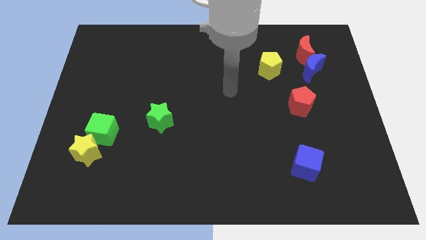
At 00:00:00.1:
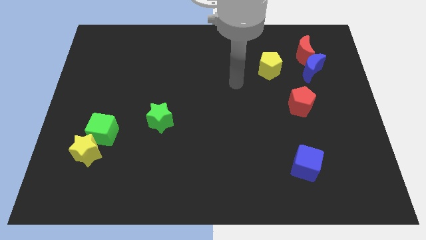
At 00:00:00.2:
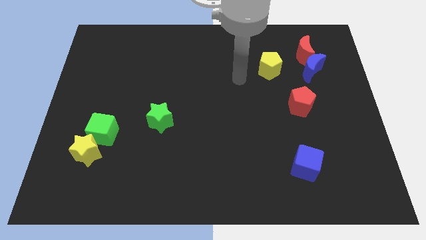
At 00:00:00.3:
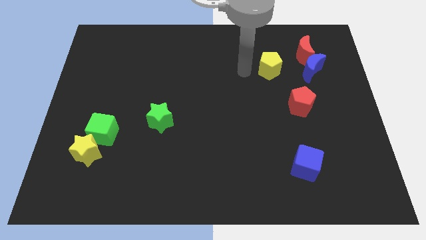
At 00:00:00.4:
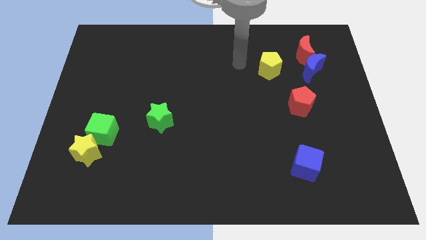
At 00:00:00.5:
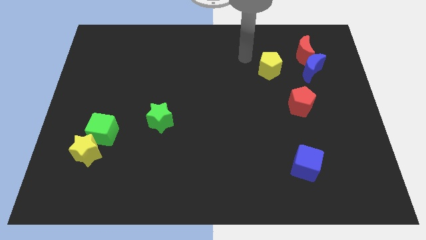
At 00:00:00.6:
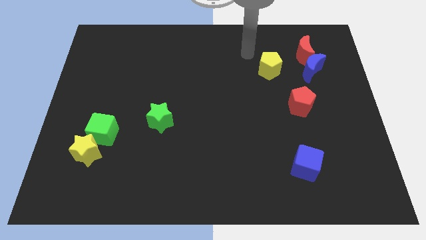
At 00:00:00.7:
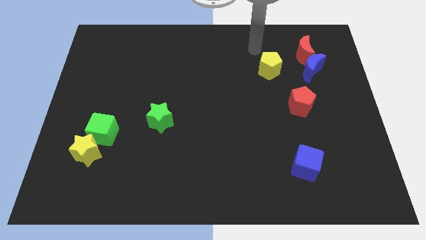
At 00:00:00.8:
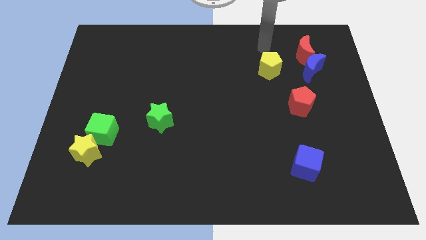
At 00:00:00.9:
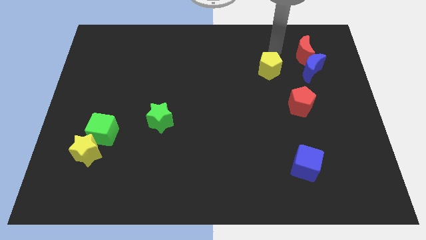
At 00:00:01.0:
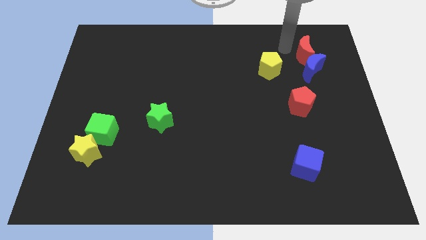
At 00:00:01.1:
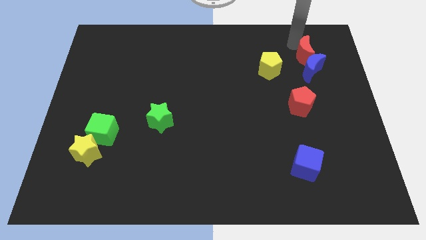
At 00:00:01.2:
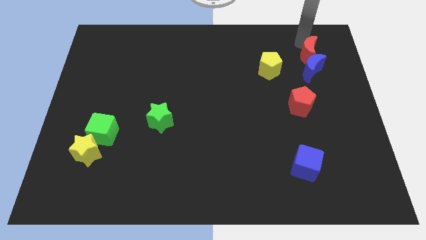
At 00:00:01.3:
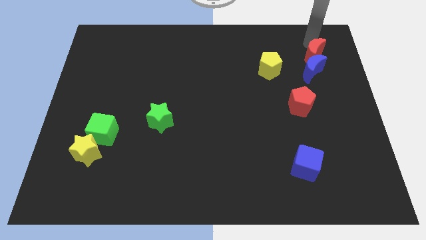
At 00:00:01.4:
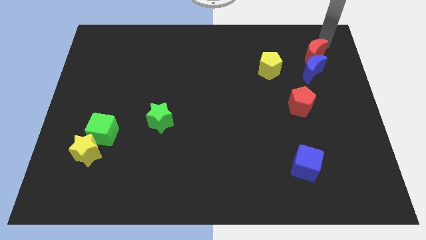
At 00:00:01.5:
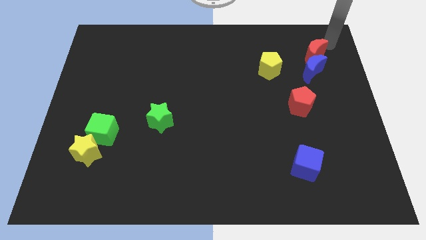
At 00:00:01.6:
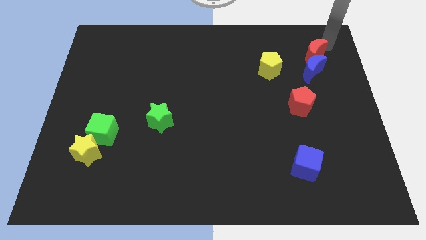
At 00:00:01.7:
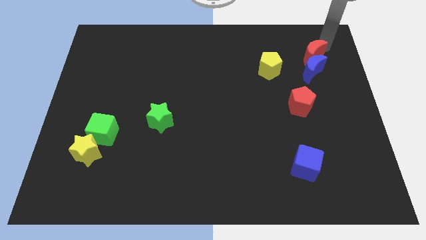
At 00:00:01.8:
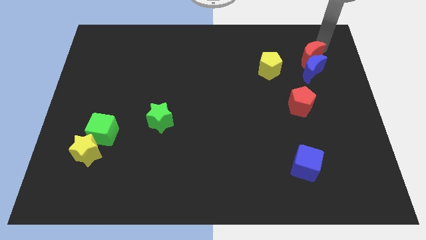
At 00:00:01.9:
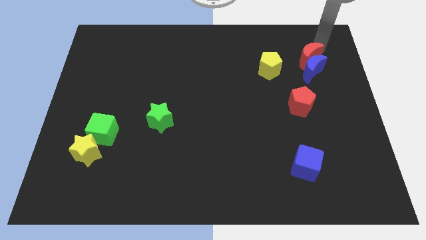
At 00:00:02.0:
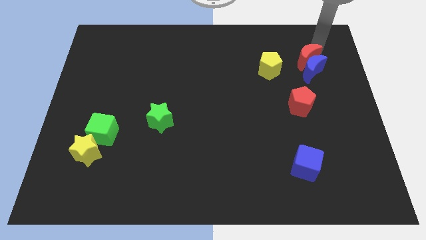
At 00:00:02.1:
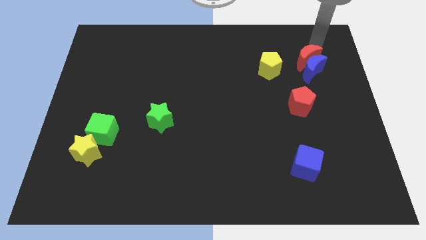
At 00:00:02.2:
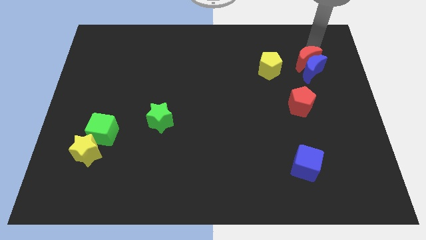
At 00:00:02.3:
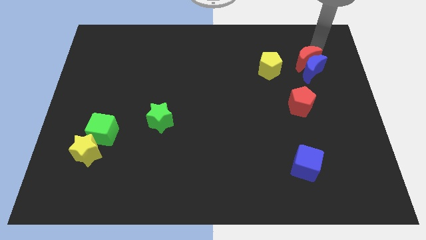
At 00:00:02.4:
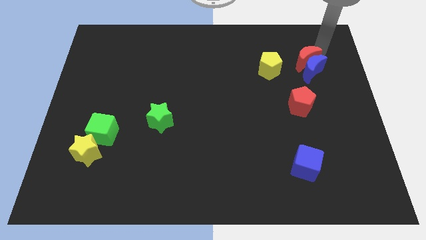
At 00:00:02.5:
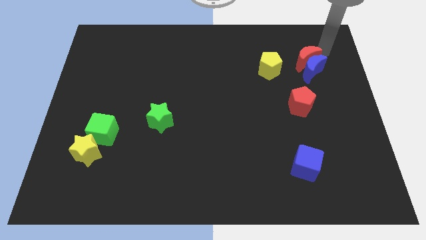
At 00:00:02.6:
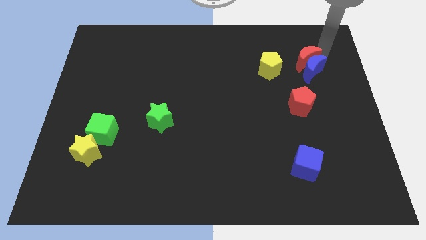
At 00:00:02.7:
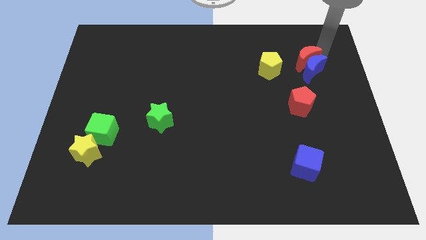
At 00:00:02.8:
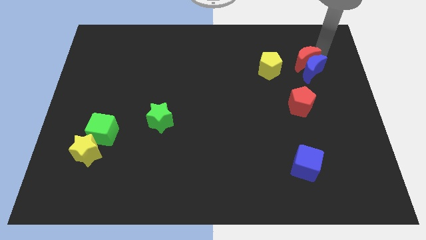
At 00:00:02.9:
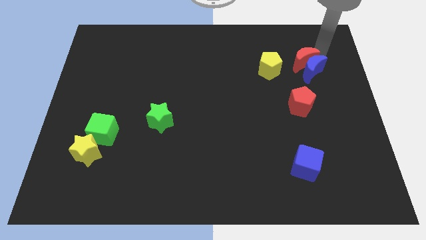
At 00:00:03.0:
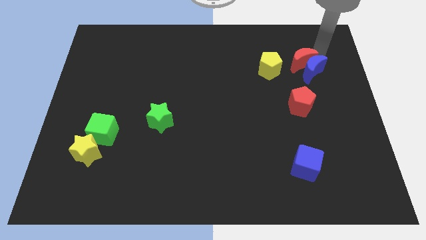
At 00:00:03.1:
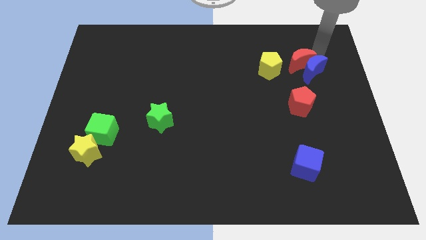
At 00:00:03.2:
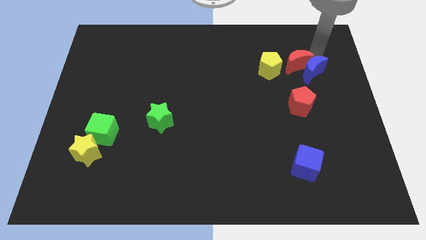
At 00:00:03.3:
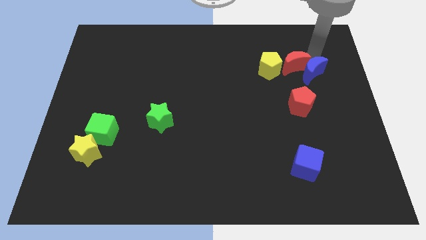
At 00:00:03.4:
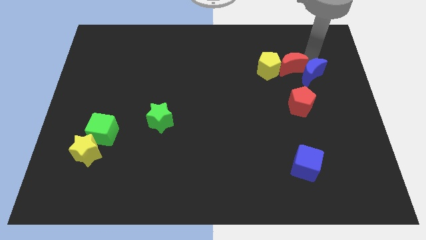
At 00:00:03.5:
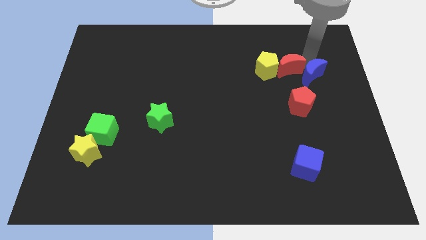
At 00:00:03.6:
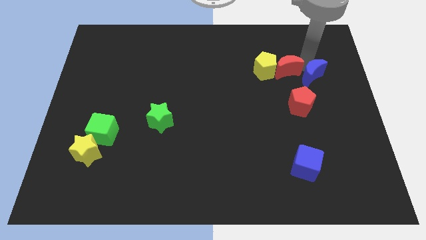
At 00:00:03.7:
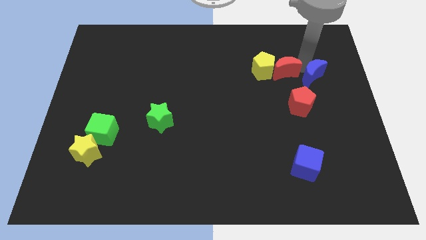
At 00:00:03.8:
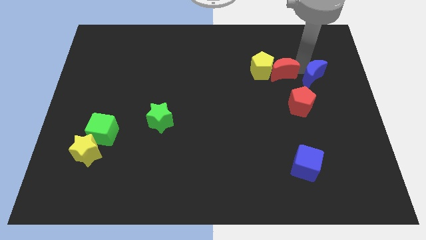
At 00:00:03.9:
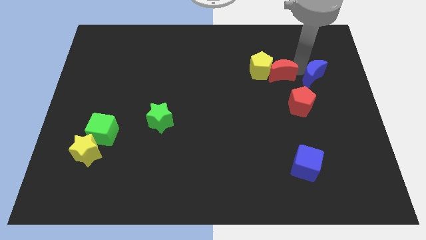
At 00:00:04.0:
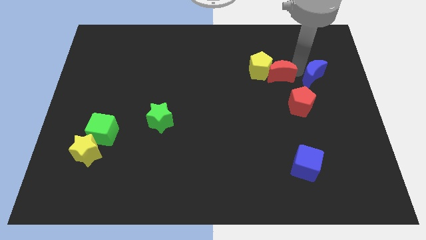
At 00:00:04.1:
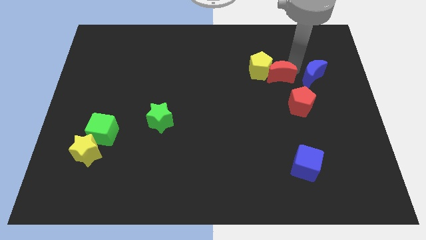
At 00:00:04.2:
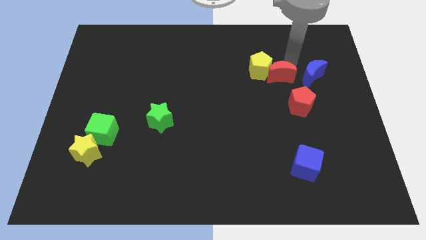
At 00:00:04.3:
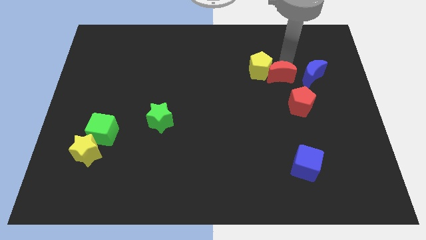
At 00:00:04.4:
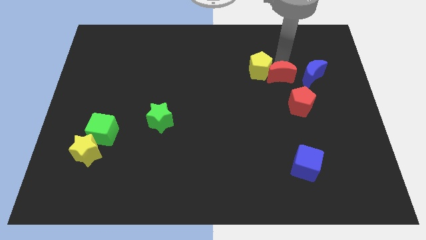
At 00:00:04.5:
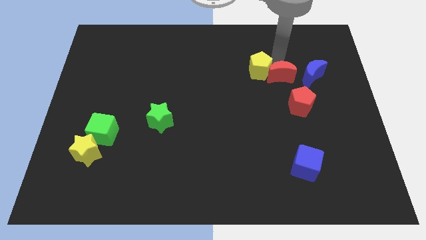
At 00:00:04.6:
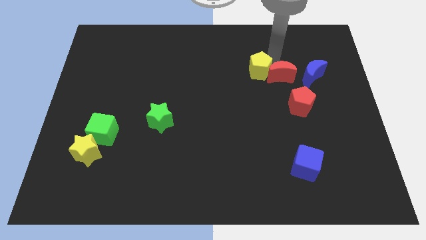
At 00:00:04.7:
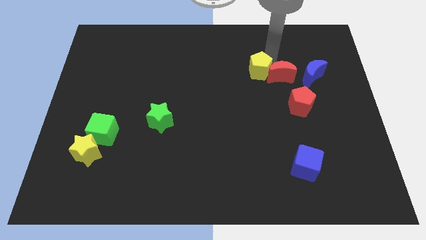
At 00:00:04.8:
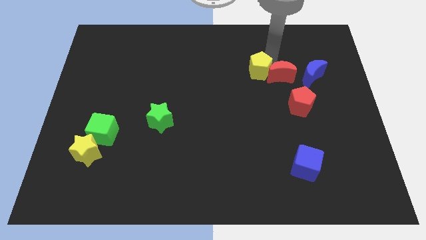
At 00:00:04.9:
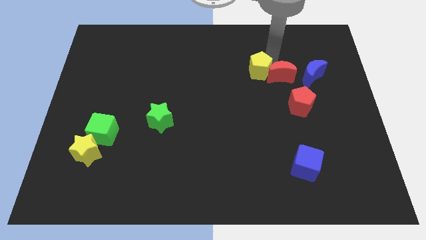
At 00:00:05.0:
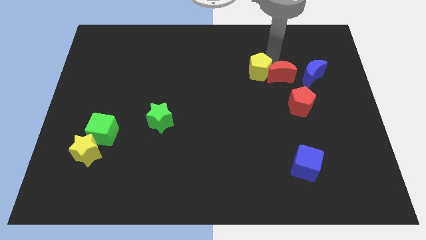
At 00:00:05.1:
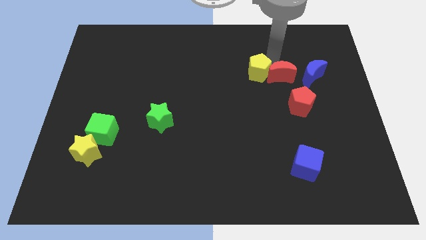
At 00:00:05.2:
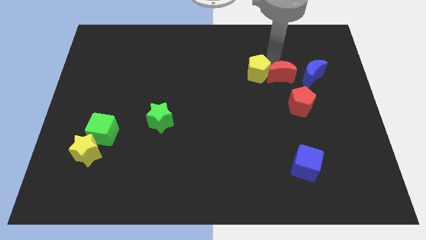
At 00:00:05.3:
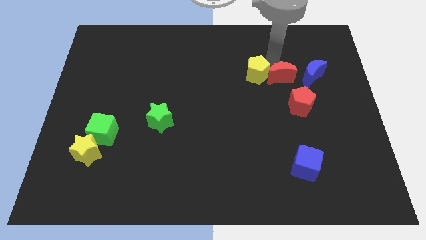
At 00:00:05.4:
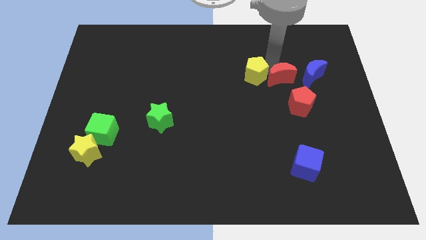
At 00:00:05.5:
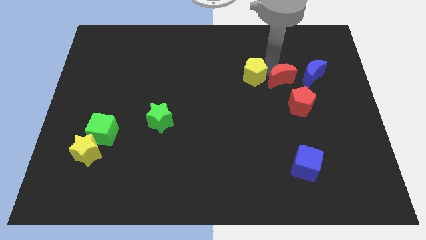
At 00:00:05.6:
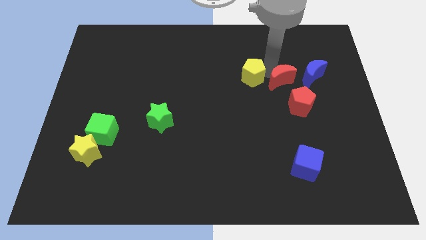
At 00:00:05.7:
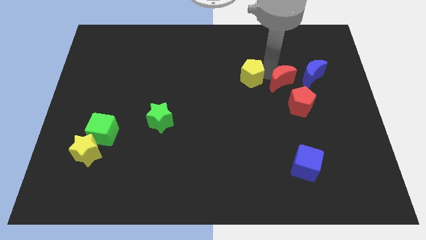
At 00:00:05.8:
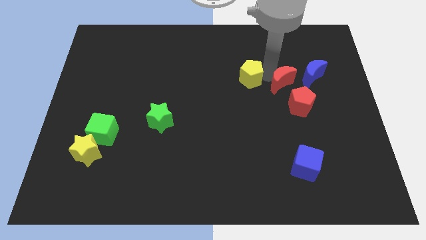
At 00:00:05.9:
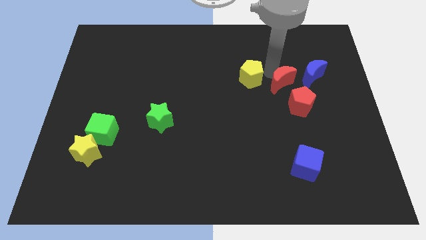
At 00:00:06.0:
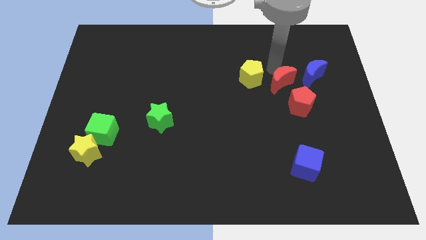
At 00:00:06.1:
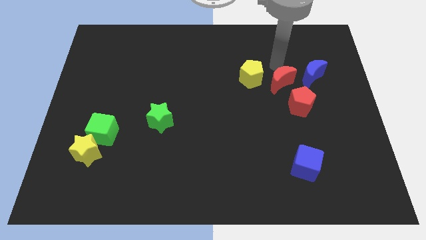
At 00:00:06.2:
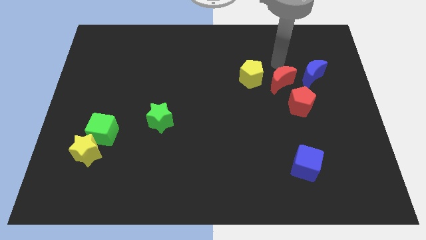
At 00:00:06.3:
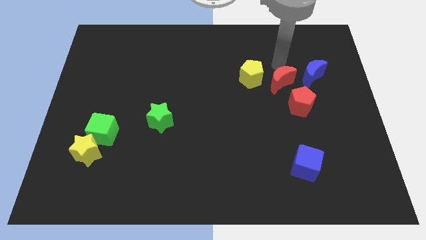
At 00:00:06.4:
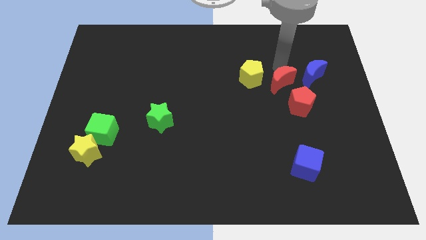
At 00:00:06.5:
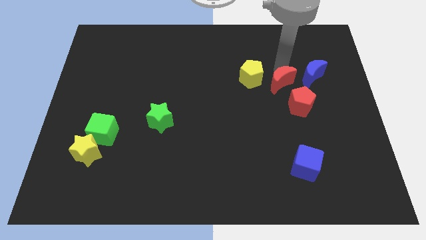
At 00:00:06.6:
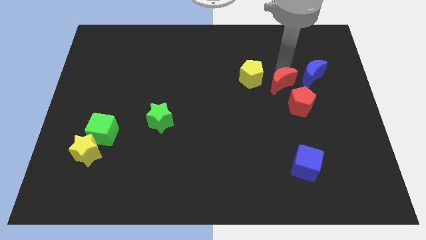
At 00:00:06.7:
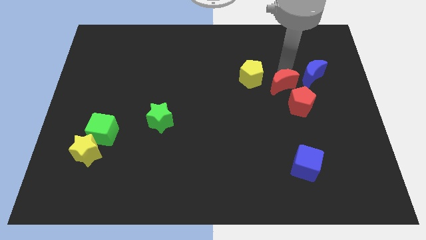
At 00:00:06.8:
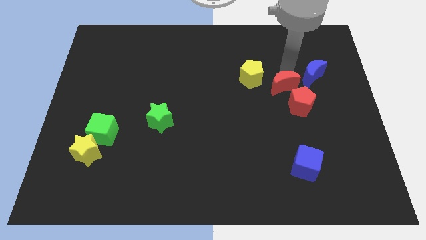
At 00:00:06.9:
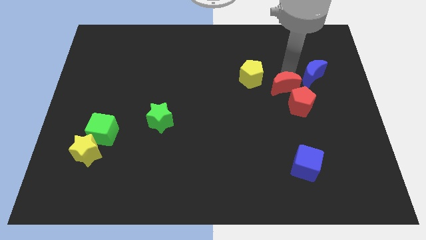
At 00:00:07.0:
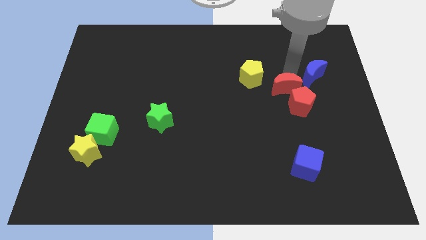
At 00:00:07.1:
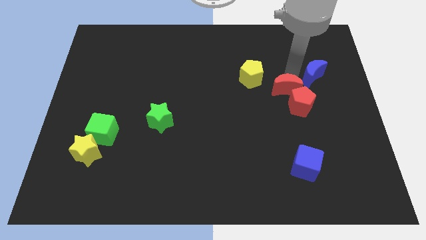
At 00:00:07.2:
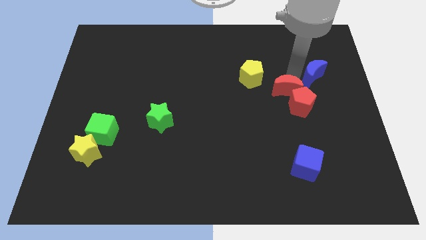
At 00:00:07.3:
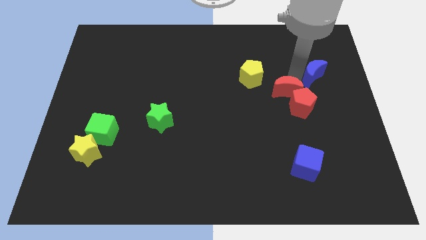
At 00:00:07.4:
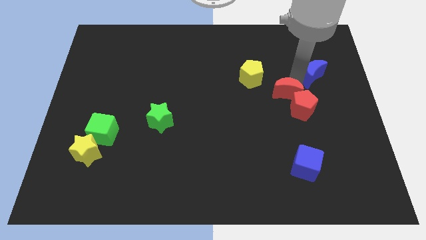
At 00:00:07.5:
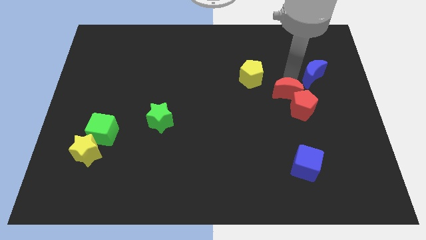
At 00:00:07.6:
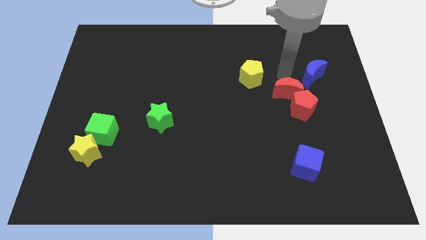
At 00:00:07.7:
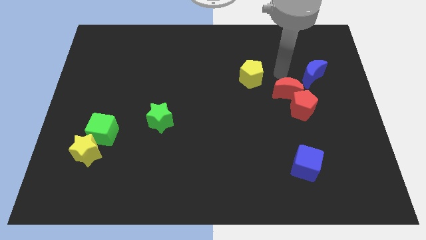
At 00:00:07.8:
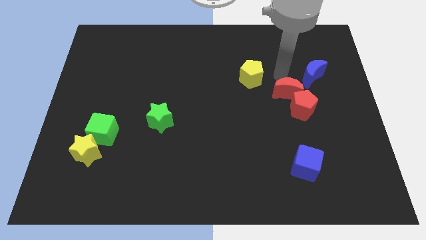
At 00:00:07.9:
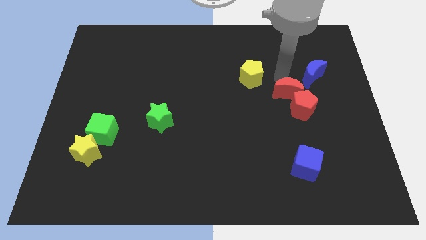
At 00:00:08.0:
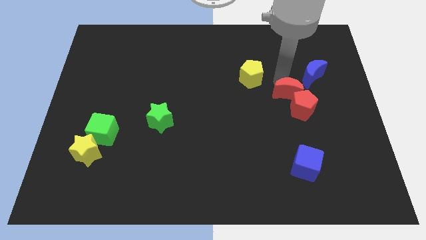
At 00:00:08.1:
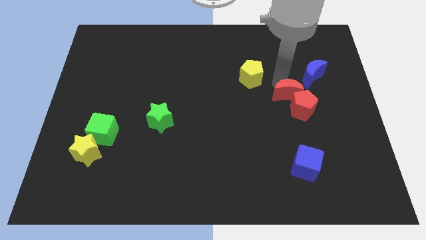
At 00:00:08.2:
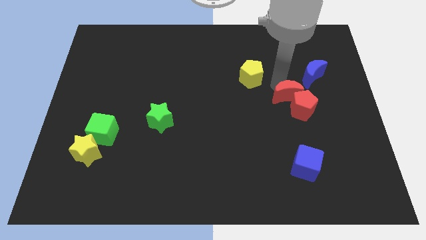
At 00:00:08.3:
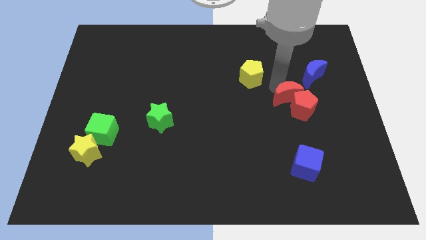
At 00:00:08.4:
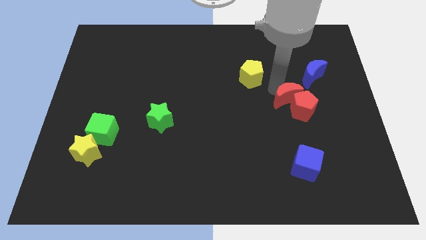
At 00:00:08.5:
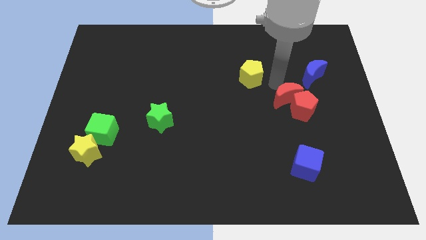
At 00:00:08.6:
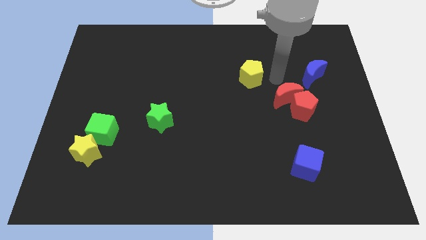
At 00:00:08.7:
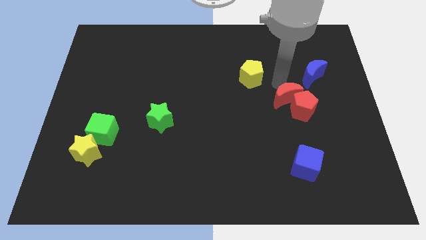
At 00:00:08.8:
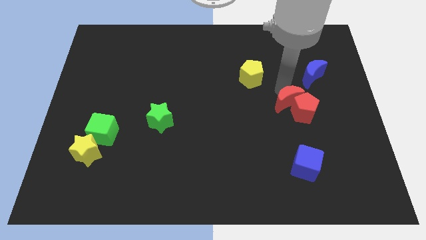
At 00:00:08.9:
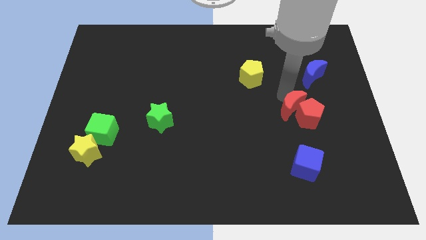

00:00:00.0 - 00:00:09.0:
move the red moon to the top of the blue cube
